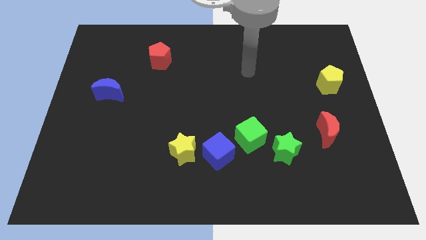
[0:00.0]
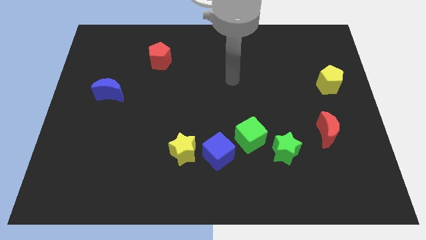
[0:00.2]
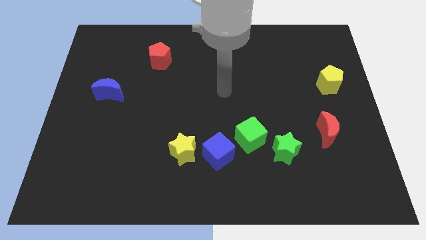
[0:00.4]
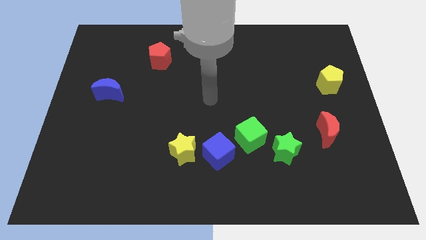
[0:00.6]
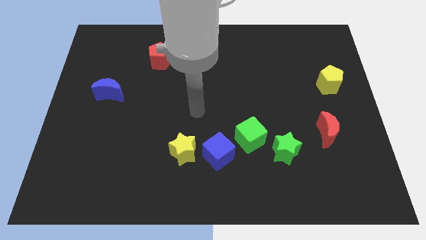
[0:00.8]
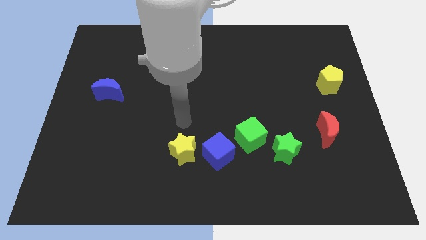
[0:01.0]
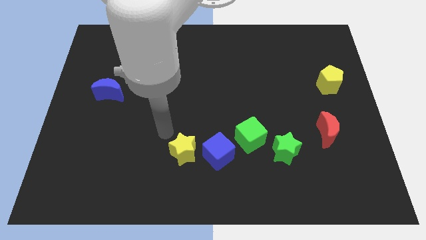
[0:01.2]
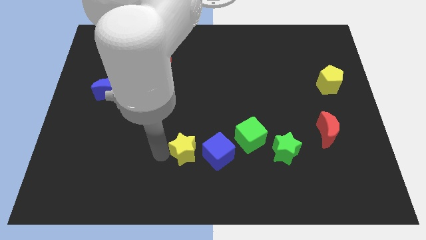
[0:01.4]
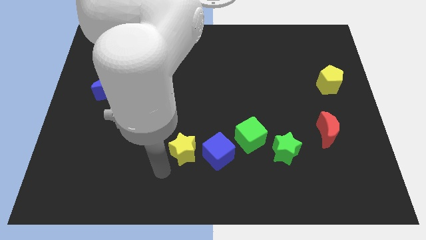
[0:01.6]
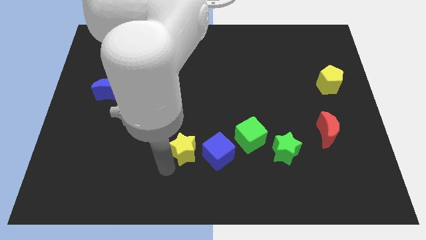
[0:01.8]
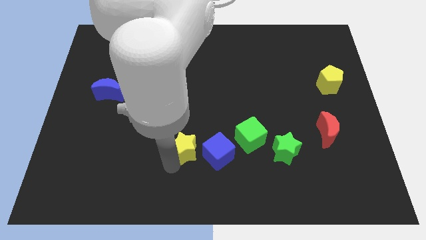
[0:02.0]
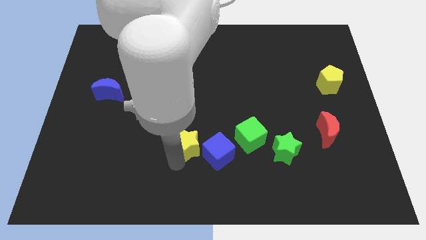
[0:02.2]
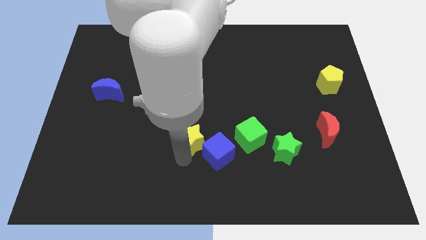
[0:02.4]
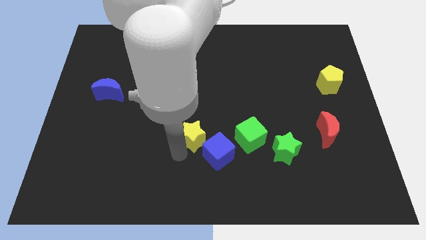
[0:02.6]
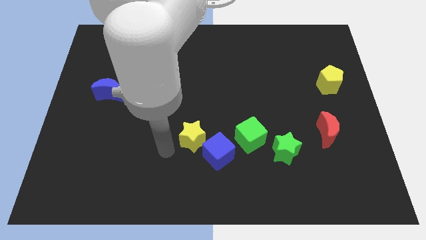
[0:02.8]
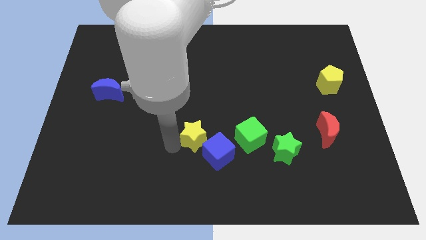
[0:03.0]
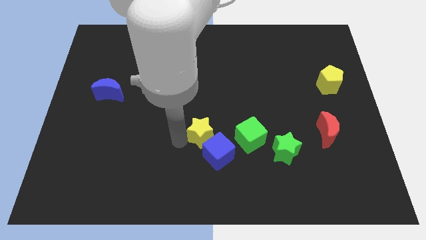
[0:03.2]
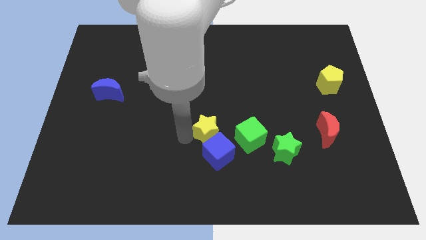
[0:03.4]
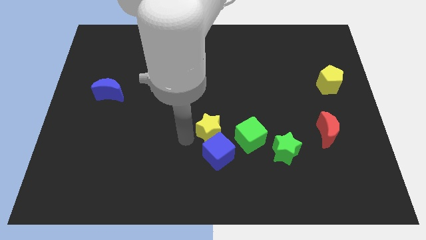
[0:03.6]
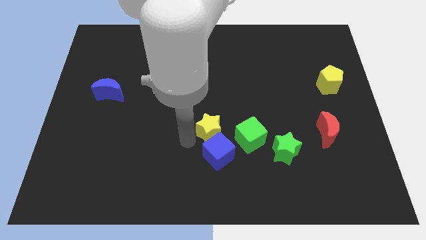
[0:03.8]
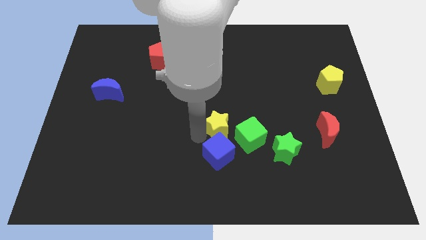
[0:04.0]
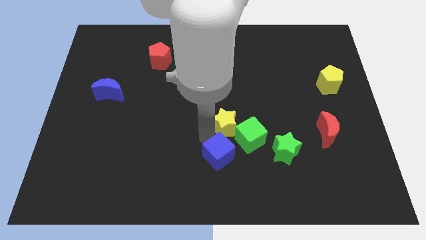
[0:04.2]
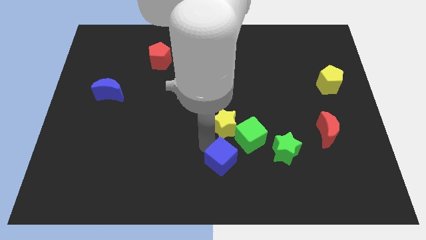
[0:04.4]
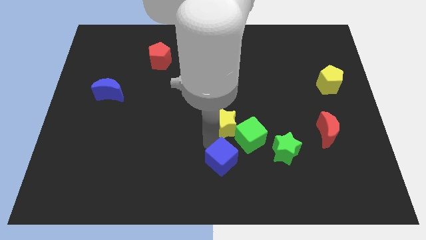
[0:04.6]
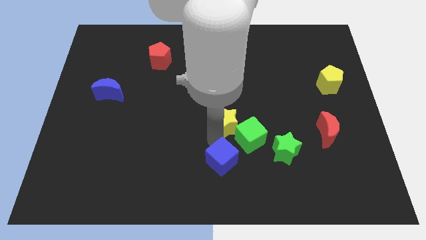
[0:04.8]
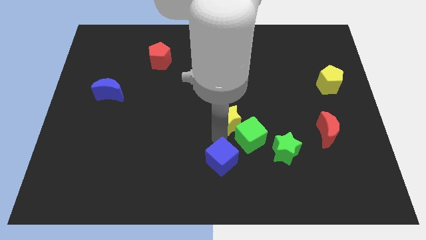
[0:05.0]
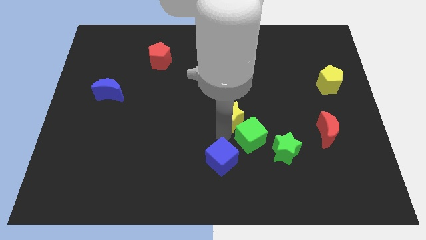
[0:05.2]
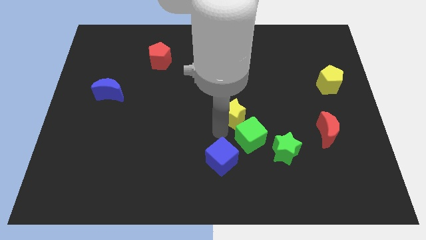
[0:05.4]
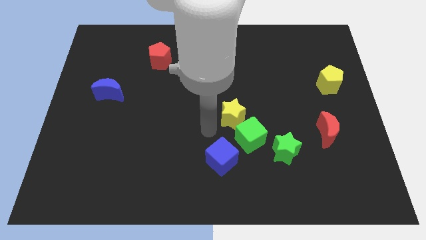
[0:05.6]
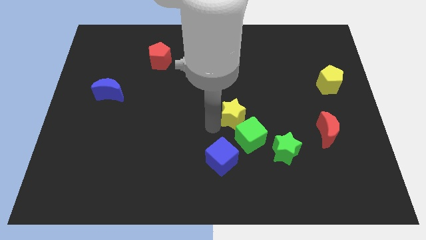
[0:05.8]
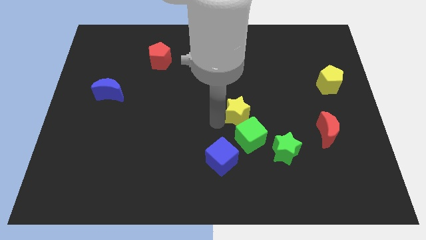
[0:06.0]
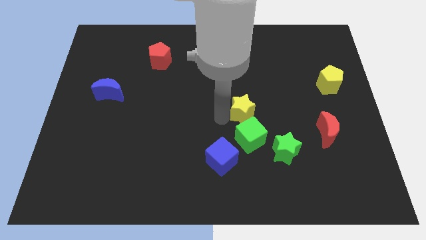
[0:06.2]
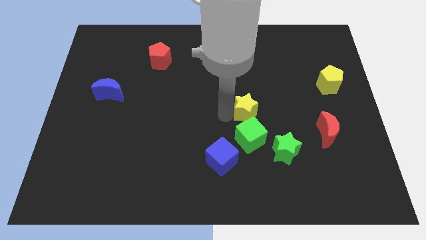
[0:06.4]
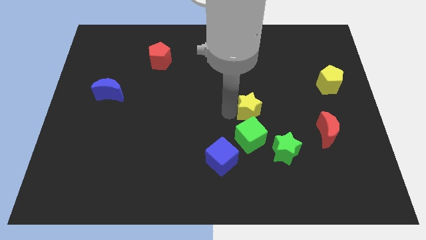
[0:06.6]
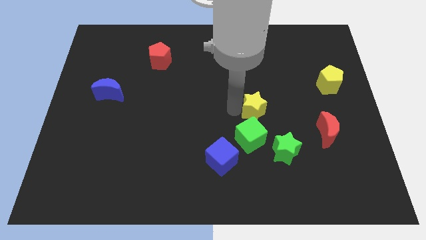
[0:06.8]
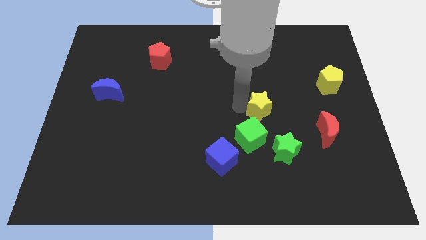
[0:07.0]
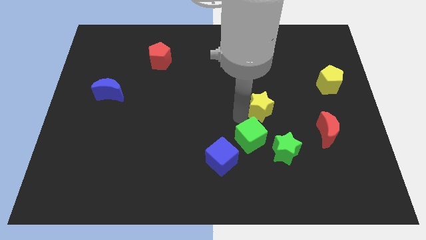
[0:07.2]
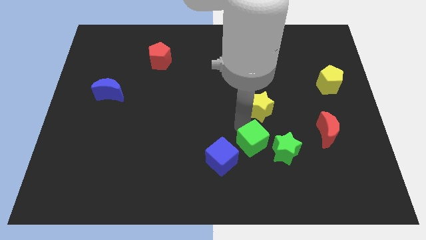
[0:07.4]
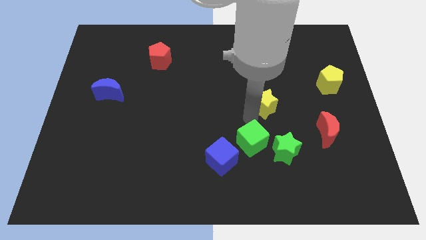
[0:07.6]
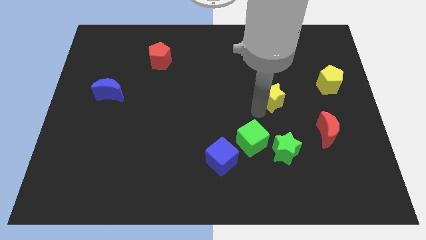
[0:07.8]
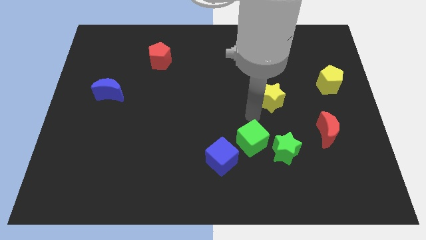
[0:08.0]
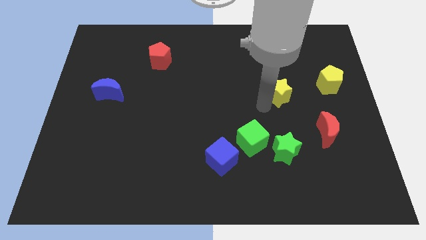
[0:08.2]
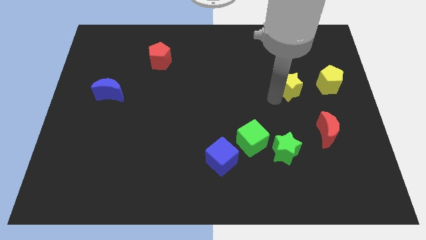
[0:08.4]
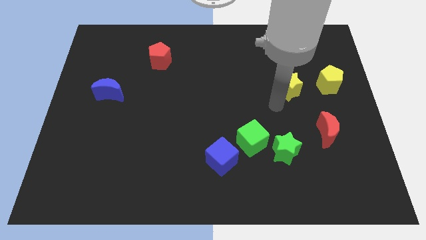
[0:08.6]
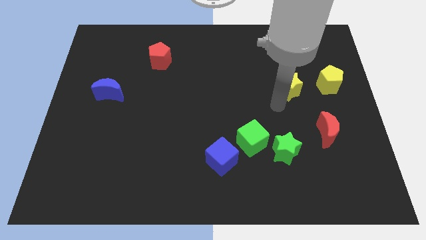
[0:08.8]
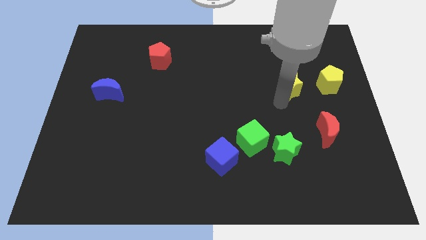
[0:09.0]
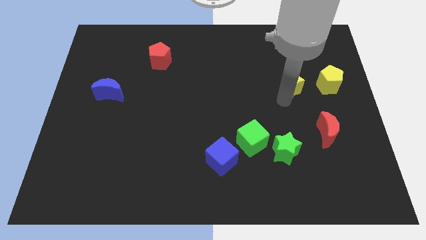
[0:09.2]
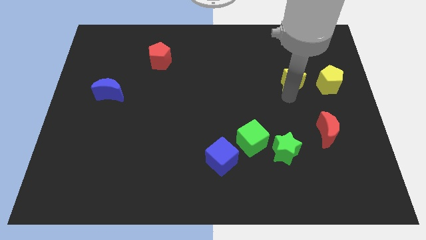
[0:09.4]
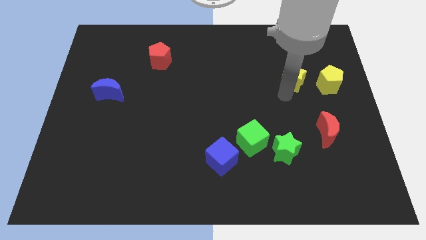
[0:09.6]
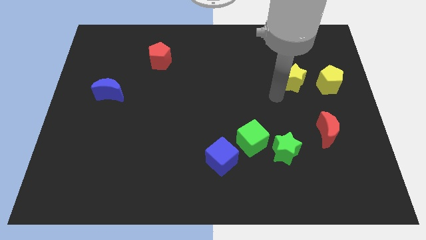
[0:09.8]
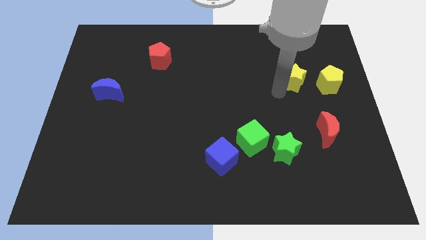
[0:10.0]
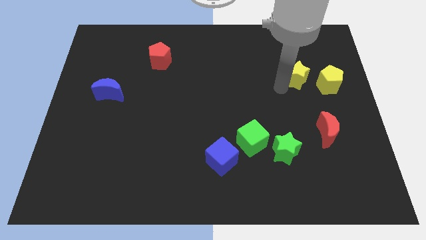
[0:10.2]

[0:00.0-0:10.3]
put the yellow star diagonally up and to the left of the yellow pentagon

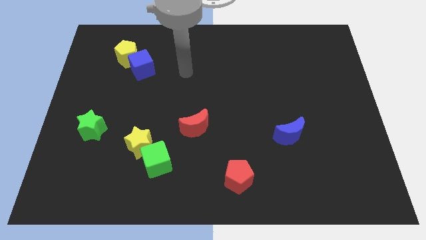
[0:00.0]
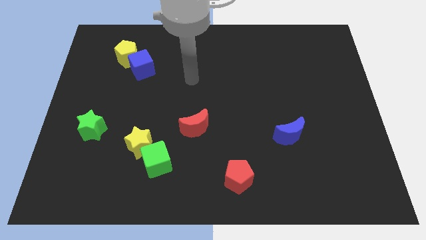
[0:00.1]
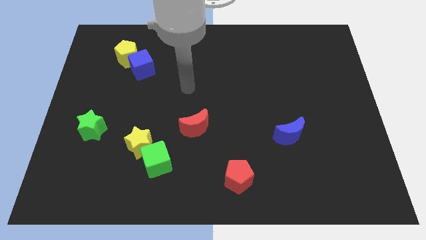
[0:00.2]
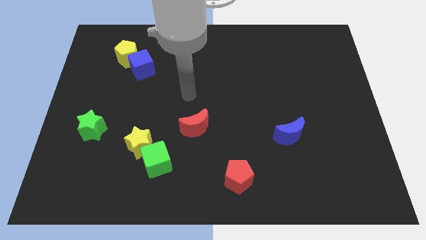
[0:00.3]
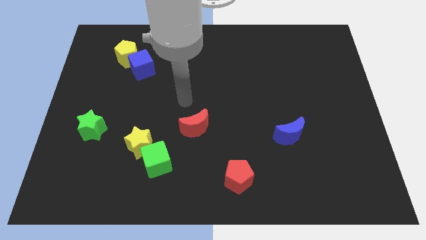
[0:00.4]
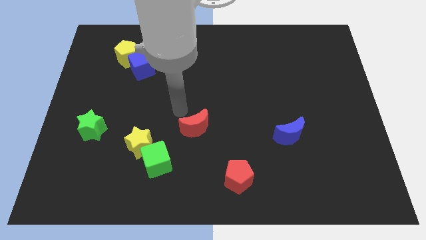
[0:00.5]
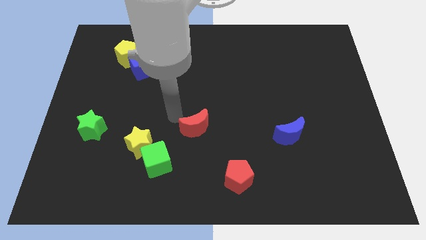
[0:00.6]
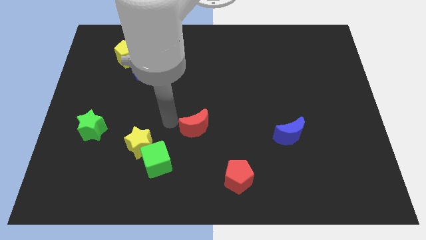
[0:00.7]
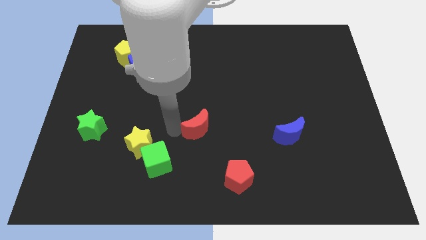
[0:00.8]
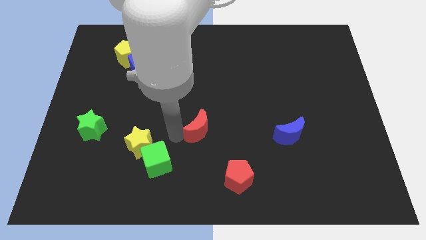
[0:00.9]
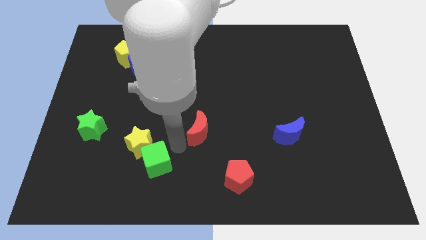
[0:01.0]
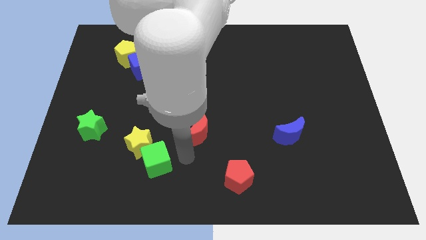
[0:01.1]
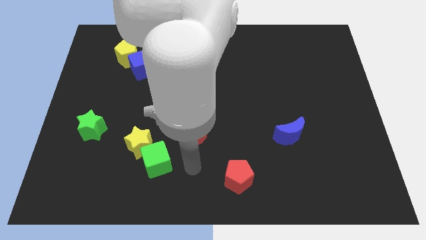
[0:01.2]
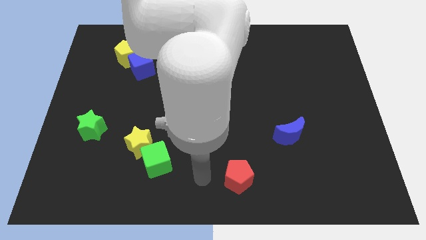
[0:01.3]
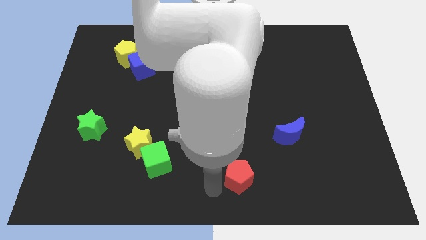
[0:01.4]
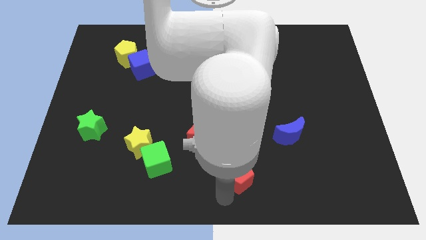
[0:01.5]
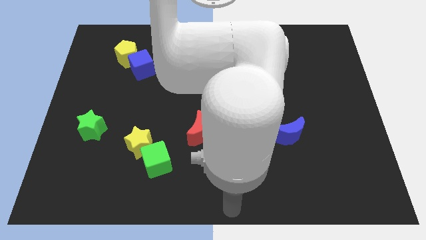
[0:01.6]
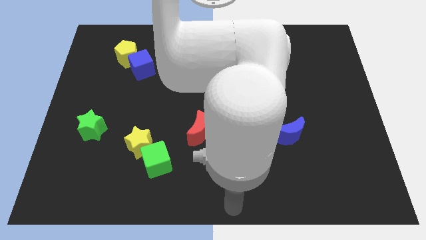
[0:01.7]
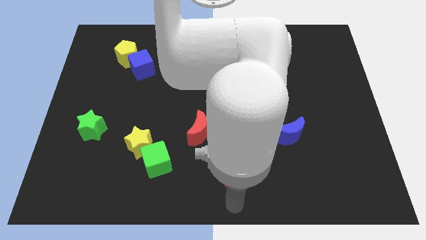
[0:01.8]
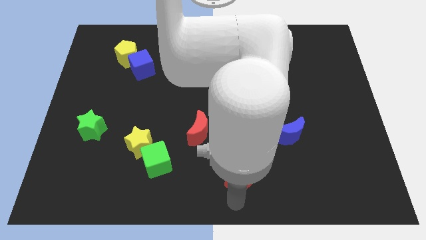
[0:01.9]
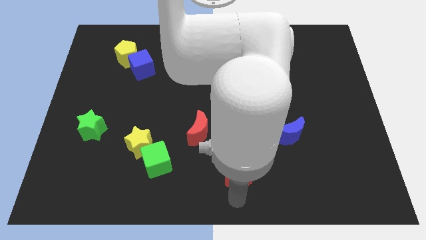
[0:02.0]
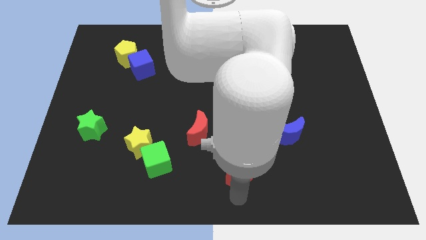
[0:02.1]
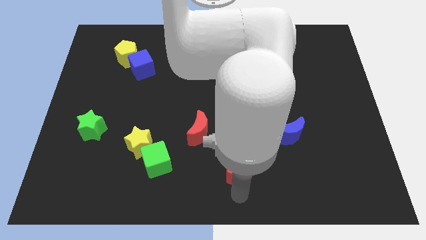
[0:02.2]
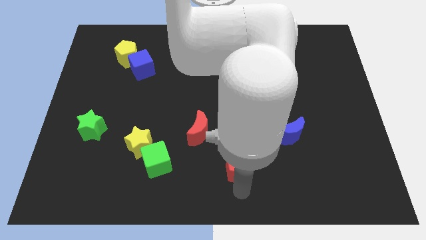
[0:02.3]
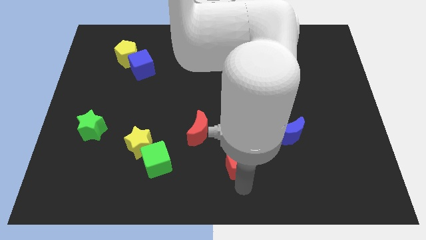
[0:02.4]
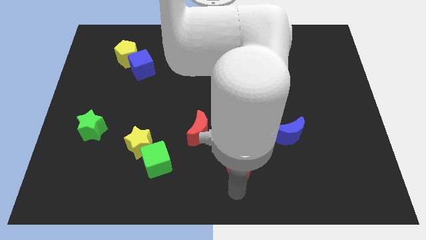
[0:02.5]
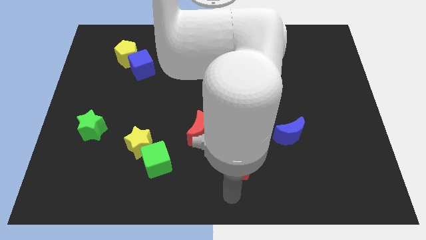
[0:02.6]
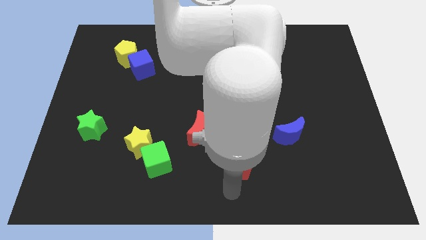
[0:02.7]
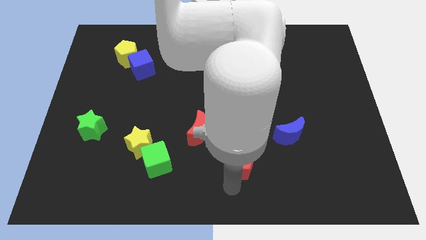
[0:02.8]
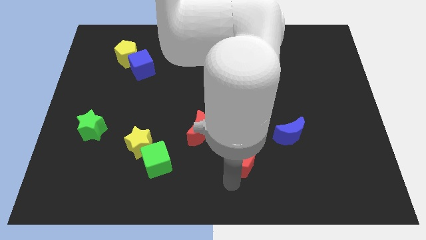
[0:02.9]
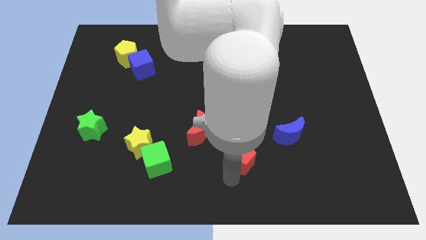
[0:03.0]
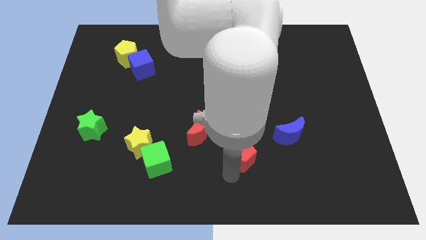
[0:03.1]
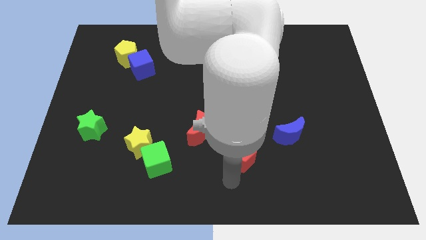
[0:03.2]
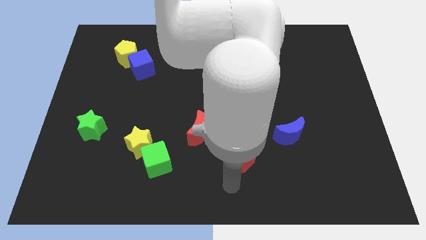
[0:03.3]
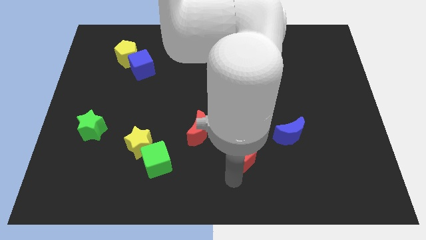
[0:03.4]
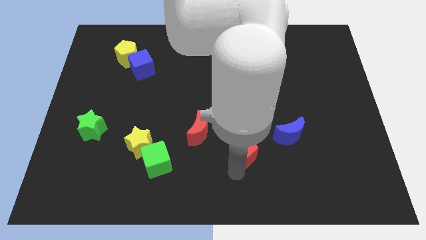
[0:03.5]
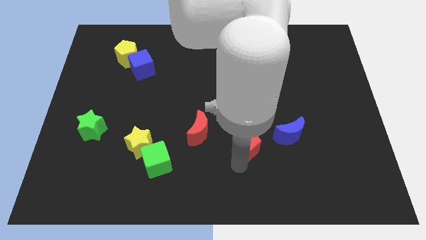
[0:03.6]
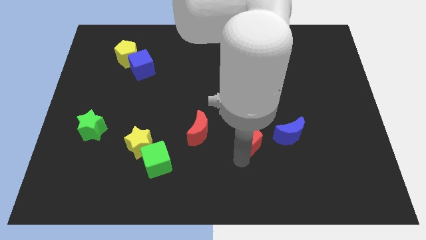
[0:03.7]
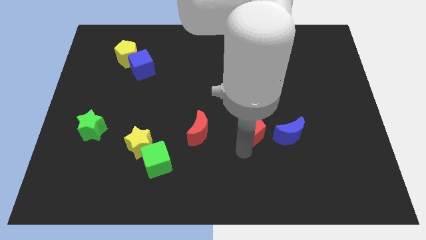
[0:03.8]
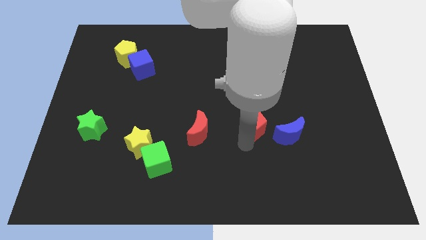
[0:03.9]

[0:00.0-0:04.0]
move the red pentagon to the top left side of the blue moon
